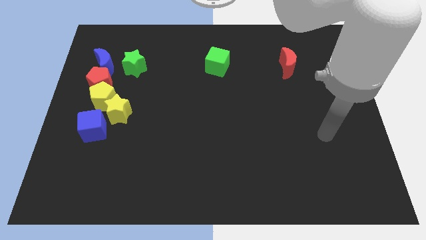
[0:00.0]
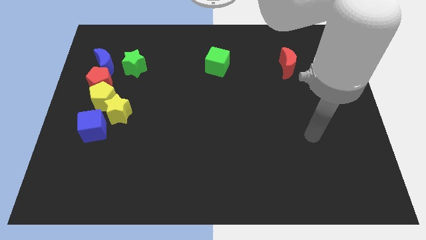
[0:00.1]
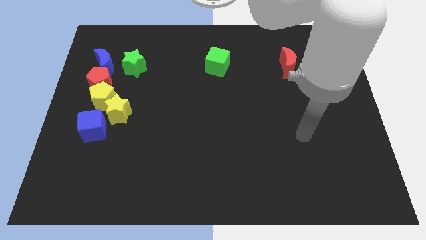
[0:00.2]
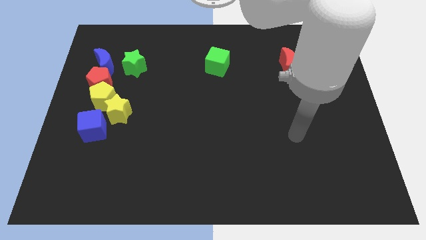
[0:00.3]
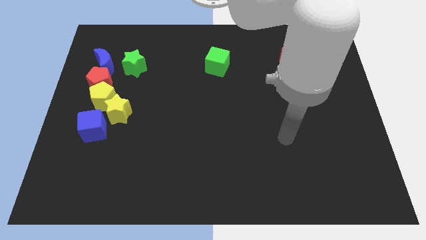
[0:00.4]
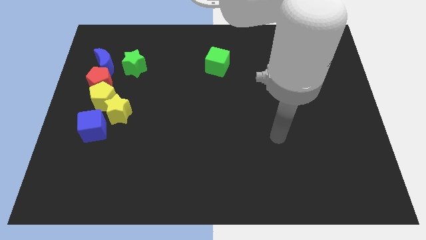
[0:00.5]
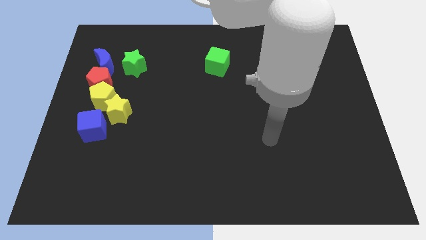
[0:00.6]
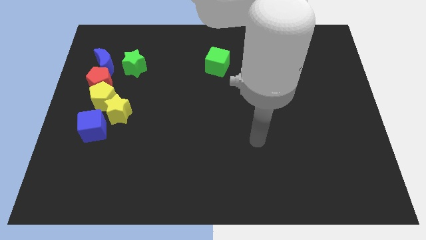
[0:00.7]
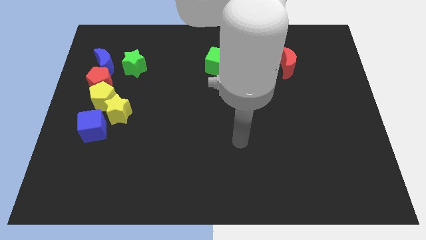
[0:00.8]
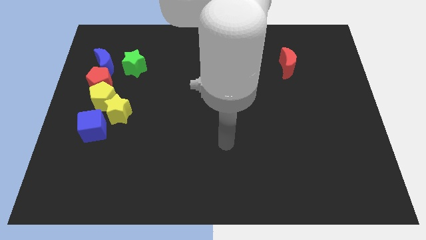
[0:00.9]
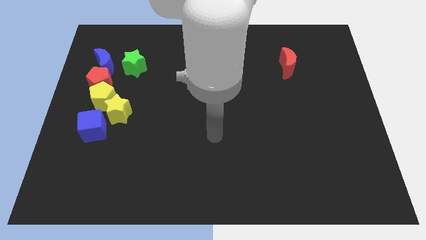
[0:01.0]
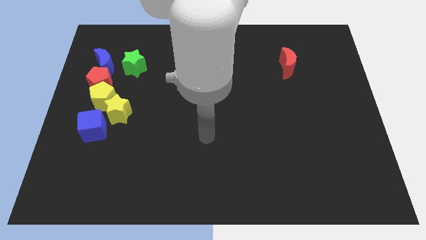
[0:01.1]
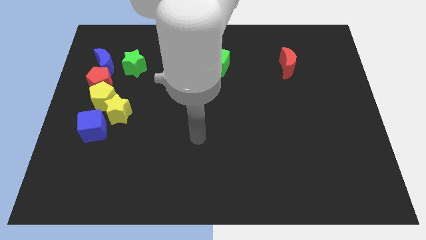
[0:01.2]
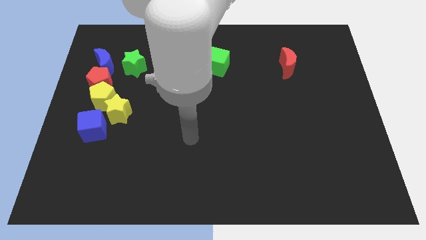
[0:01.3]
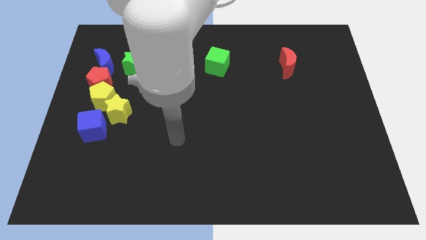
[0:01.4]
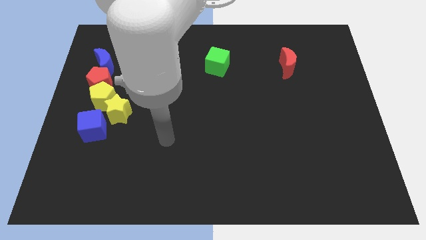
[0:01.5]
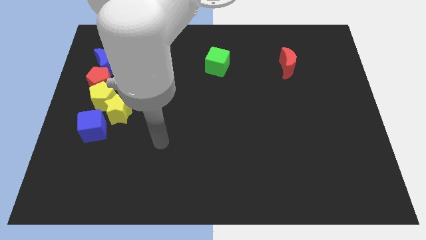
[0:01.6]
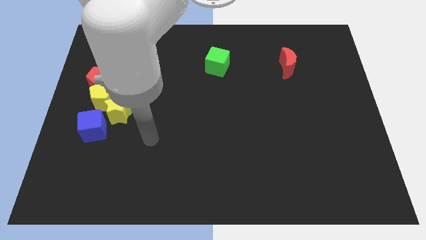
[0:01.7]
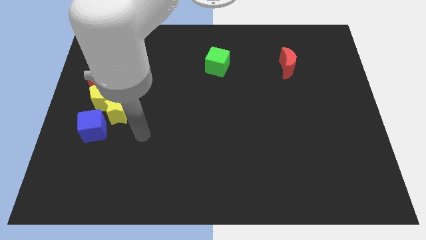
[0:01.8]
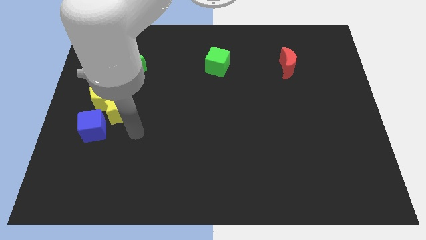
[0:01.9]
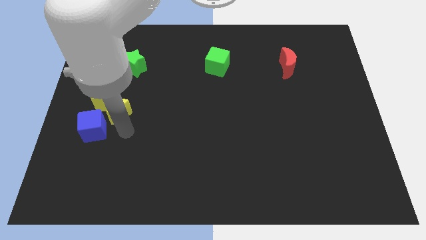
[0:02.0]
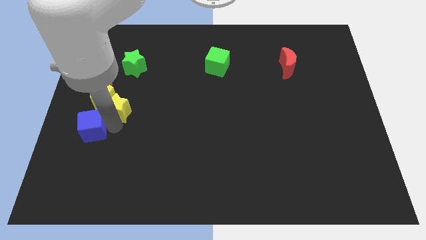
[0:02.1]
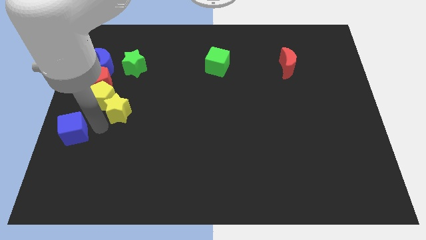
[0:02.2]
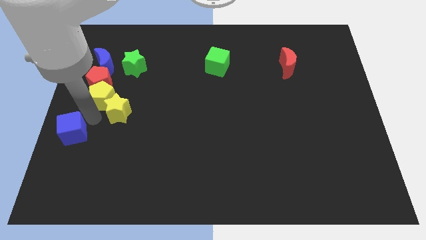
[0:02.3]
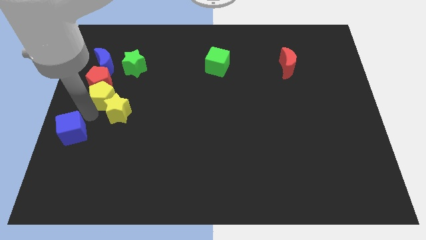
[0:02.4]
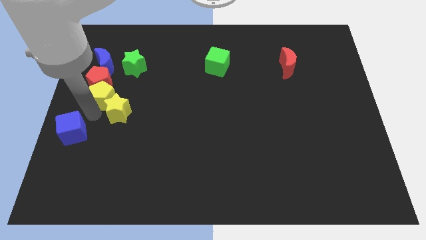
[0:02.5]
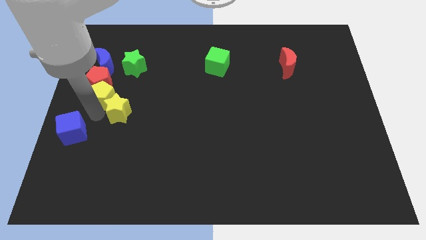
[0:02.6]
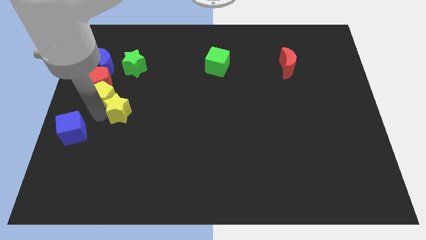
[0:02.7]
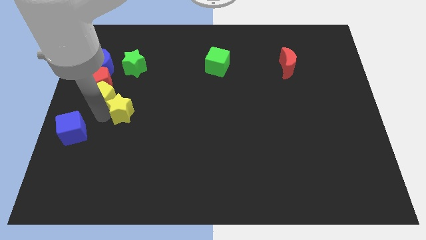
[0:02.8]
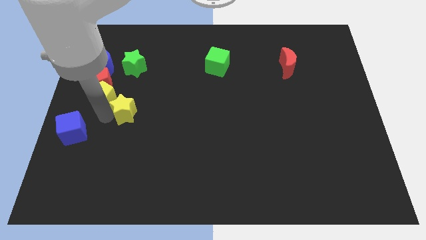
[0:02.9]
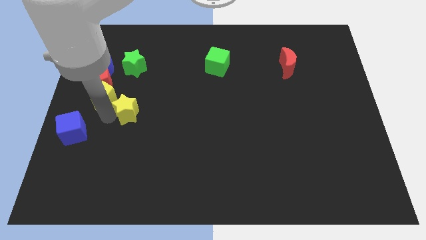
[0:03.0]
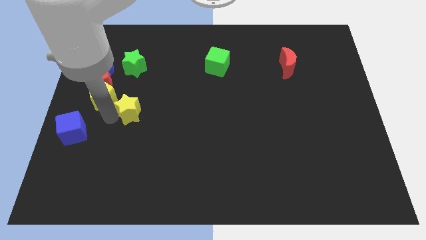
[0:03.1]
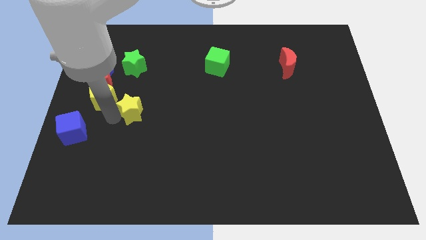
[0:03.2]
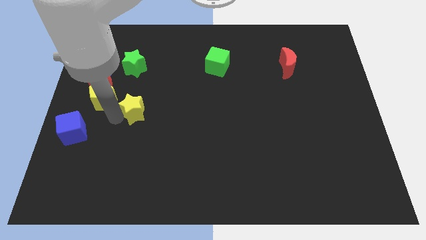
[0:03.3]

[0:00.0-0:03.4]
pull the yellow star apart from the yellow pentagon and blue cube

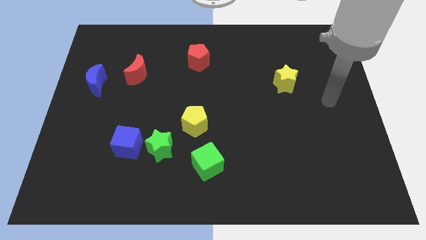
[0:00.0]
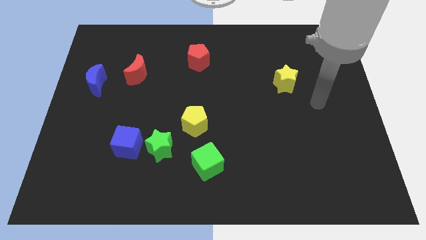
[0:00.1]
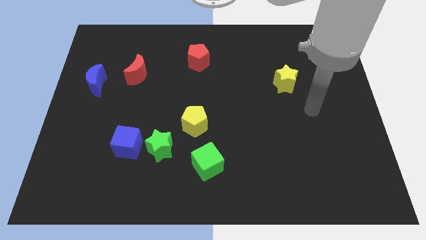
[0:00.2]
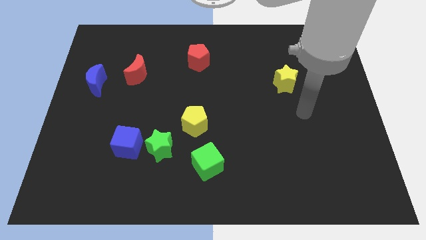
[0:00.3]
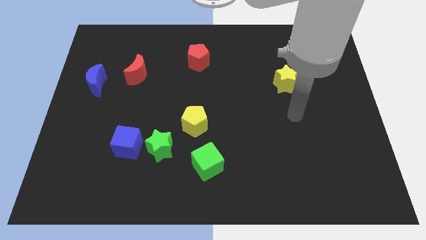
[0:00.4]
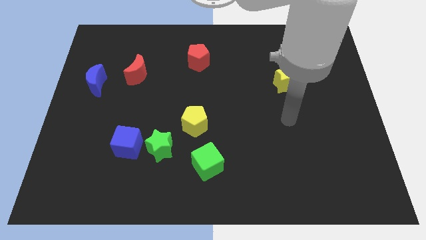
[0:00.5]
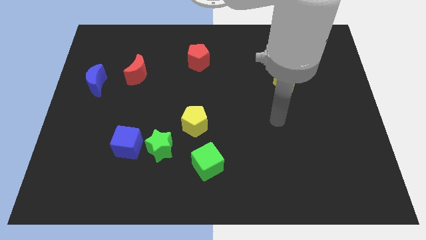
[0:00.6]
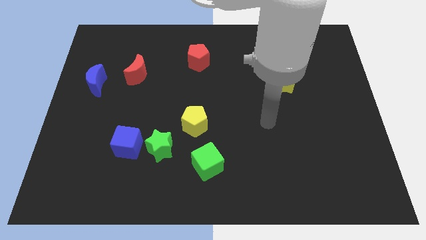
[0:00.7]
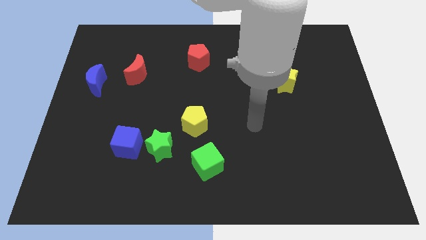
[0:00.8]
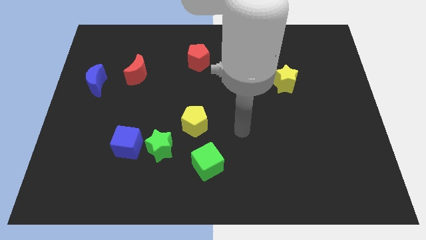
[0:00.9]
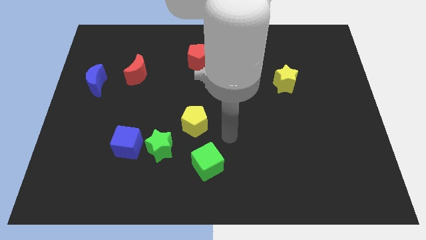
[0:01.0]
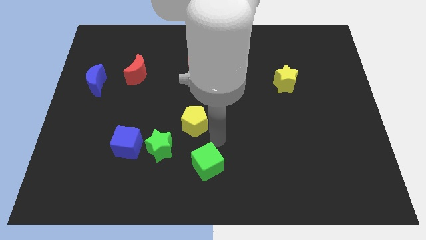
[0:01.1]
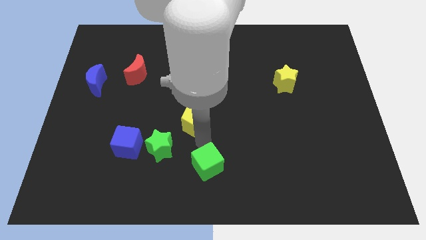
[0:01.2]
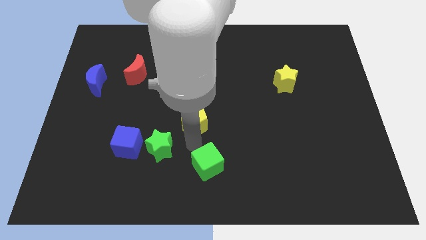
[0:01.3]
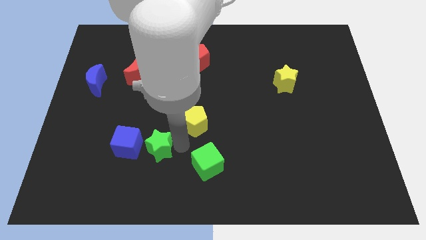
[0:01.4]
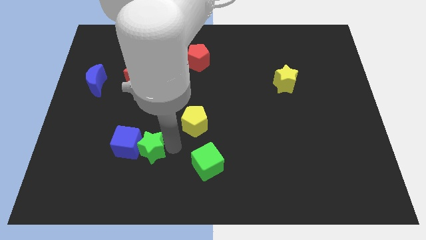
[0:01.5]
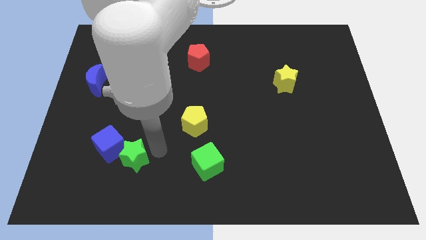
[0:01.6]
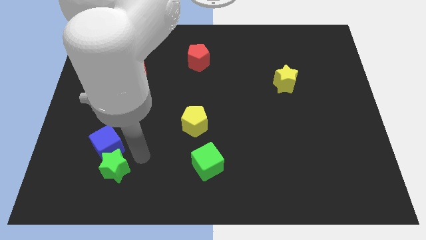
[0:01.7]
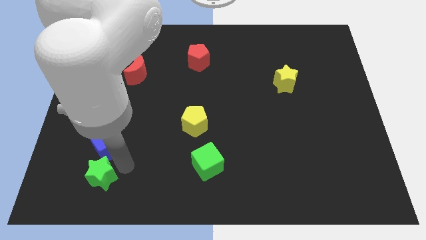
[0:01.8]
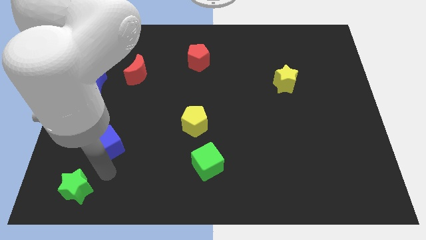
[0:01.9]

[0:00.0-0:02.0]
pull the blue cube apart from the green star

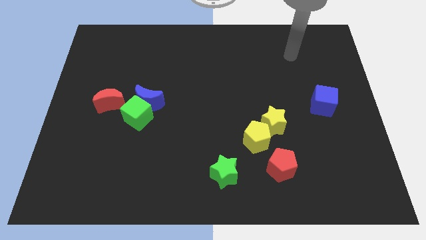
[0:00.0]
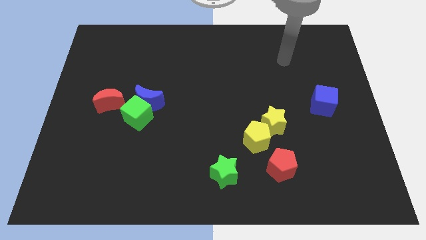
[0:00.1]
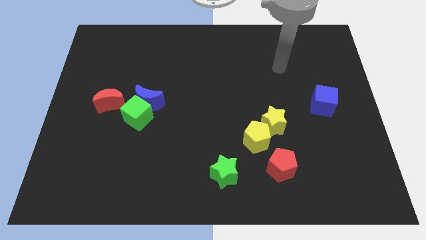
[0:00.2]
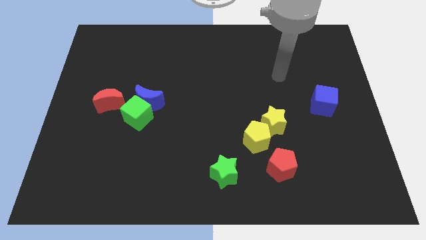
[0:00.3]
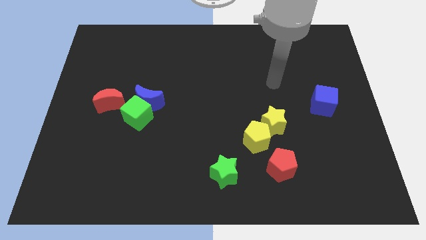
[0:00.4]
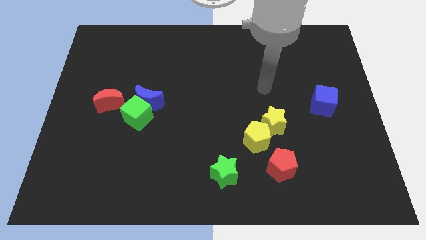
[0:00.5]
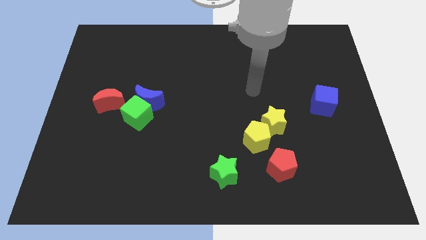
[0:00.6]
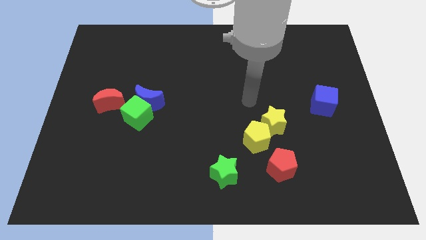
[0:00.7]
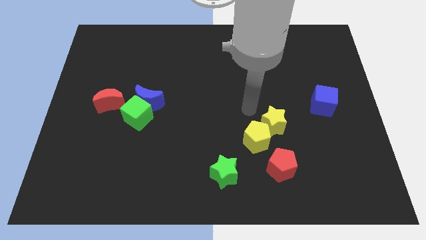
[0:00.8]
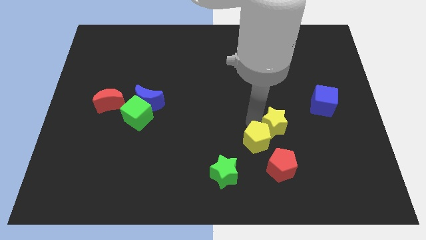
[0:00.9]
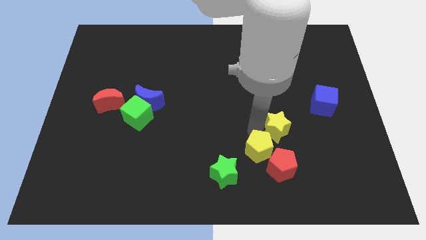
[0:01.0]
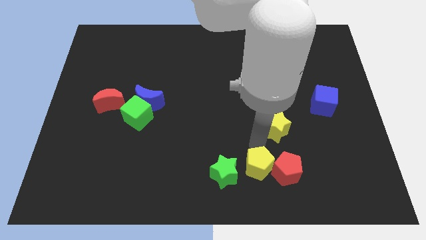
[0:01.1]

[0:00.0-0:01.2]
move the yellow star away from the yellow pentagon

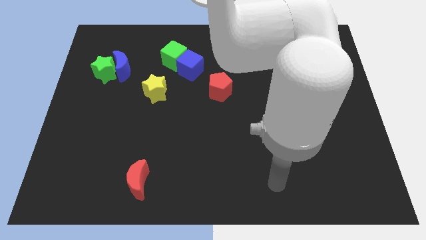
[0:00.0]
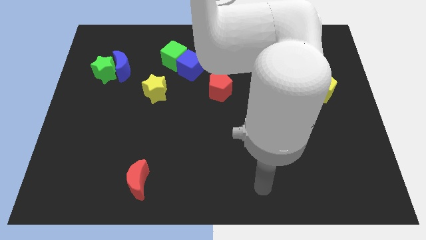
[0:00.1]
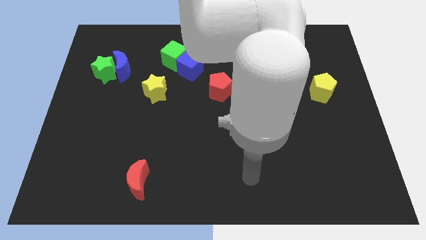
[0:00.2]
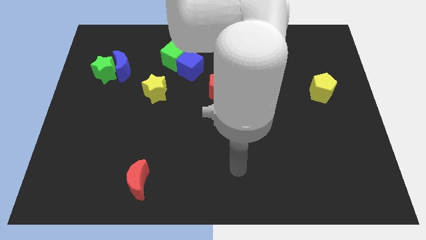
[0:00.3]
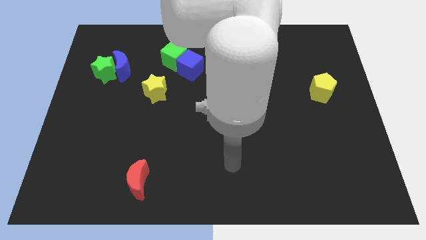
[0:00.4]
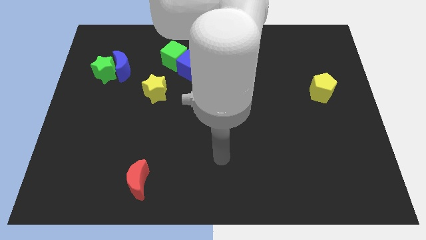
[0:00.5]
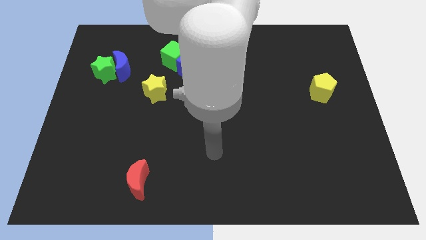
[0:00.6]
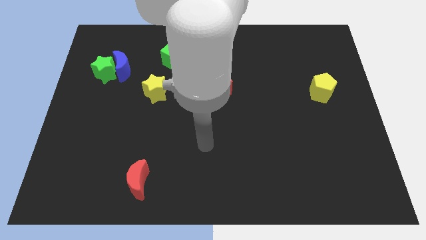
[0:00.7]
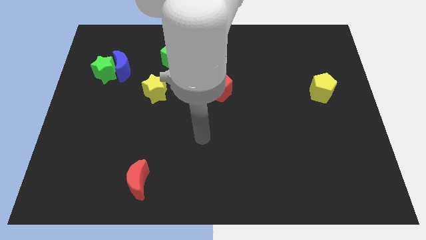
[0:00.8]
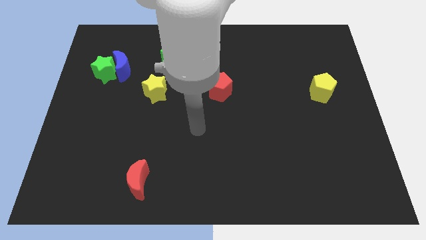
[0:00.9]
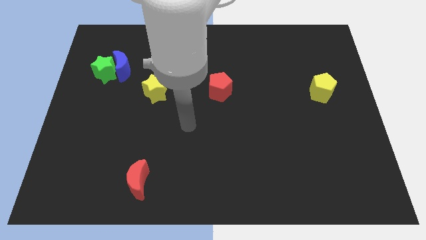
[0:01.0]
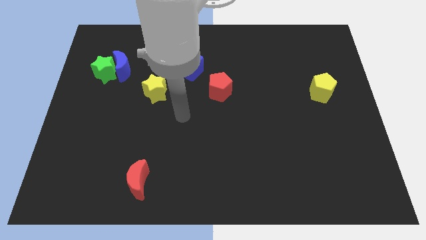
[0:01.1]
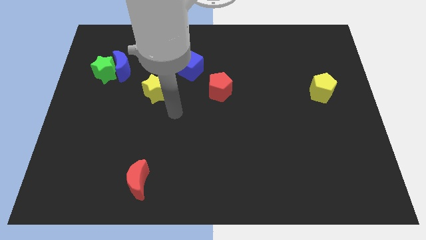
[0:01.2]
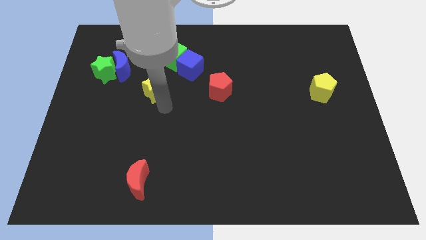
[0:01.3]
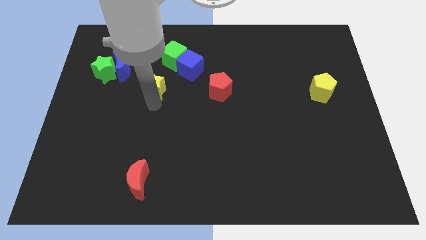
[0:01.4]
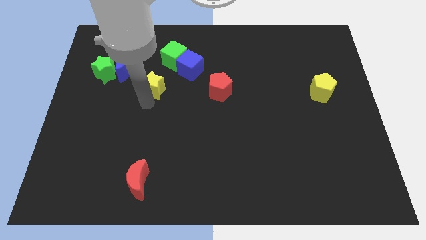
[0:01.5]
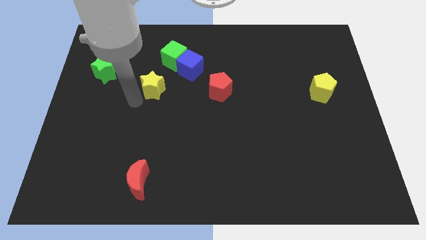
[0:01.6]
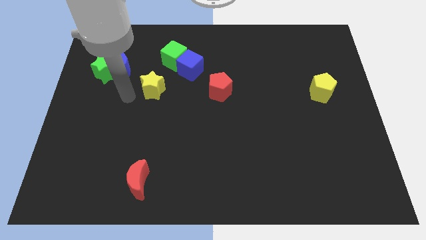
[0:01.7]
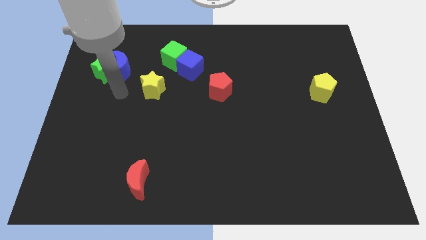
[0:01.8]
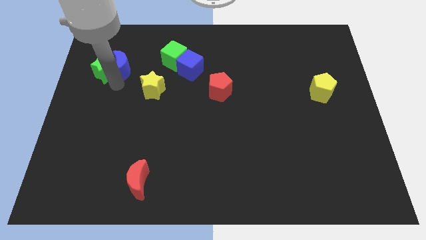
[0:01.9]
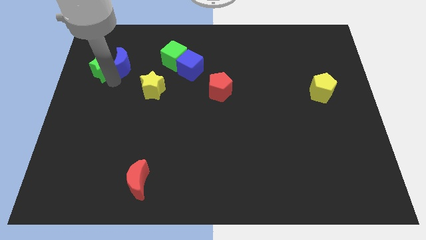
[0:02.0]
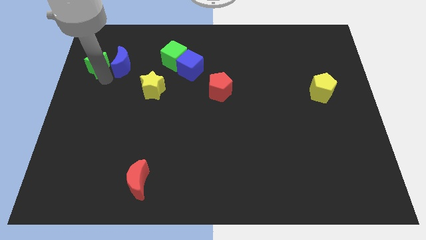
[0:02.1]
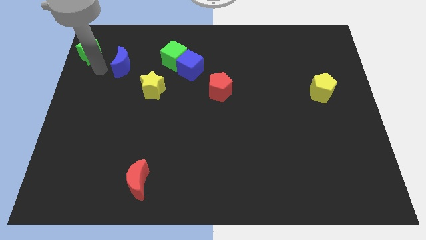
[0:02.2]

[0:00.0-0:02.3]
separate the blue moon from the green star

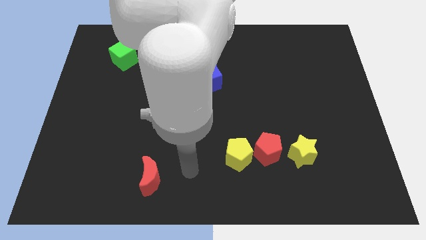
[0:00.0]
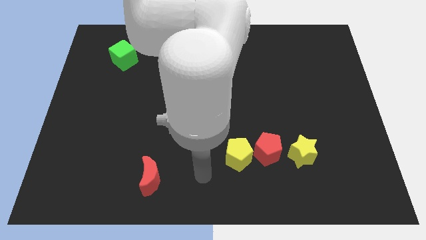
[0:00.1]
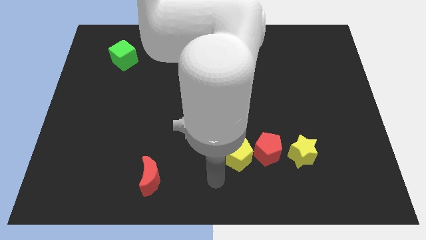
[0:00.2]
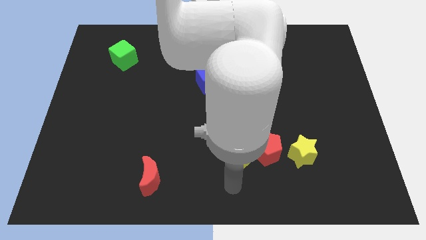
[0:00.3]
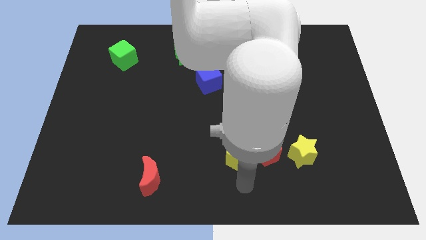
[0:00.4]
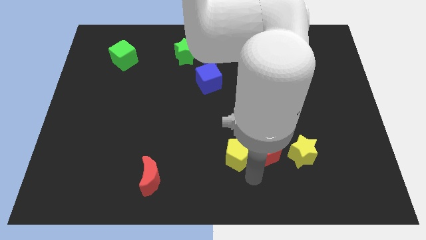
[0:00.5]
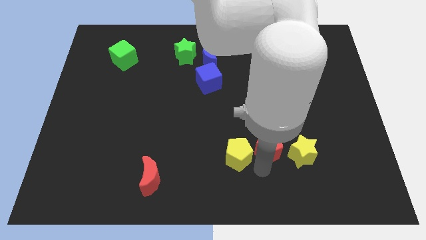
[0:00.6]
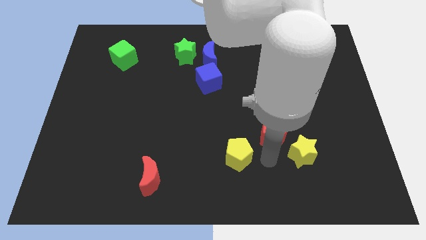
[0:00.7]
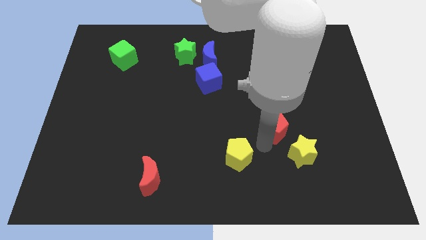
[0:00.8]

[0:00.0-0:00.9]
separate the yellow pentagon from the red pentagon
